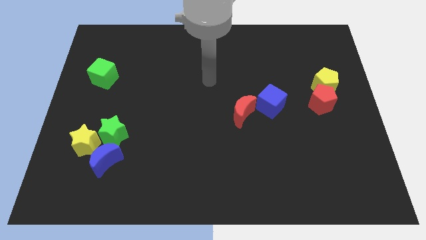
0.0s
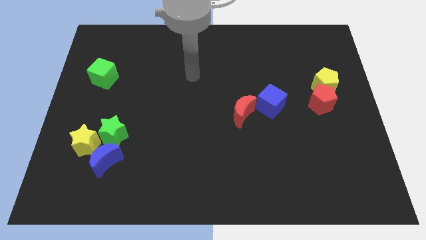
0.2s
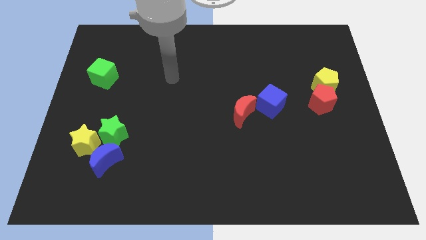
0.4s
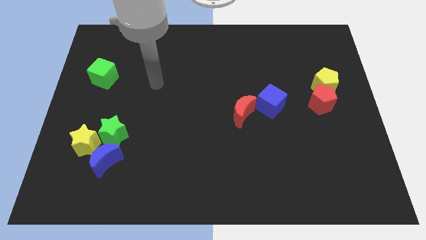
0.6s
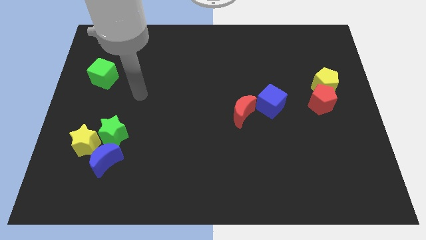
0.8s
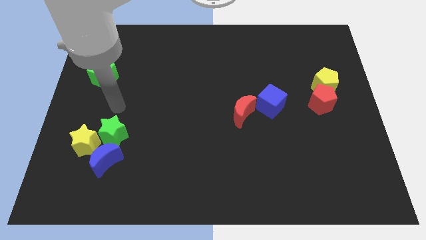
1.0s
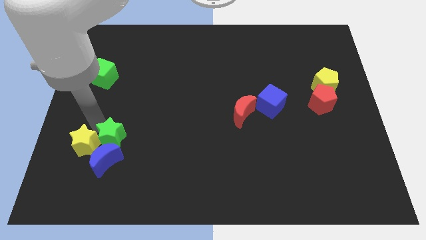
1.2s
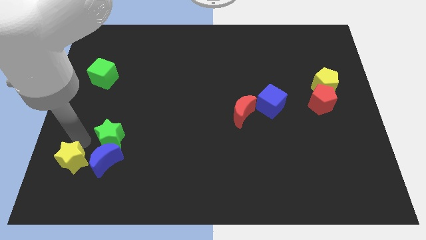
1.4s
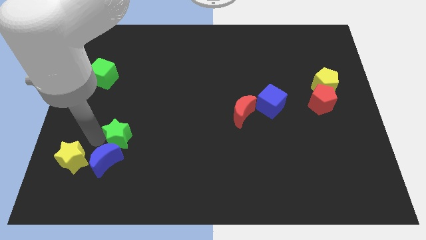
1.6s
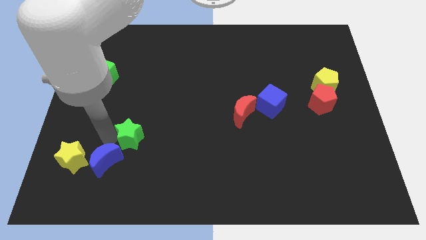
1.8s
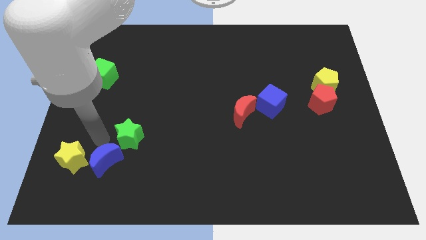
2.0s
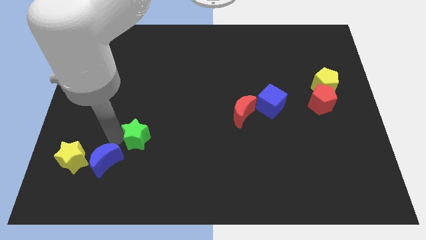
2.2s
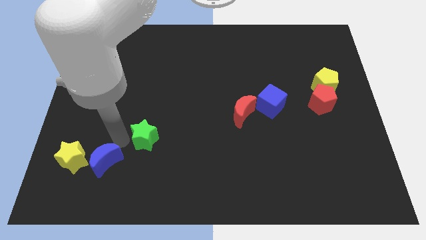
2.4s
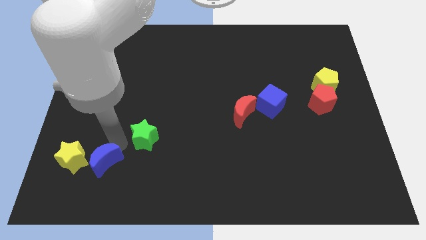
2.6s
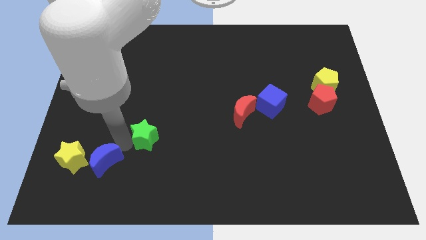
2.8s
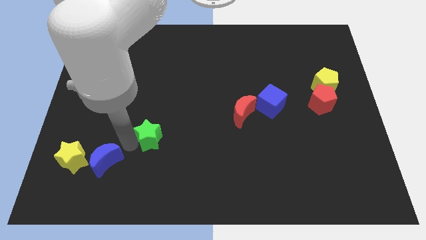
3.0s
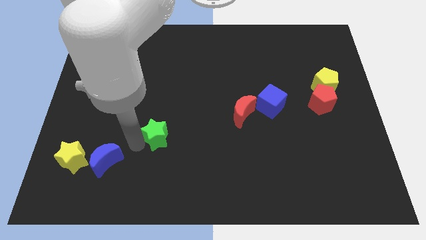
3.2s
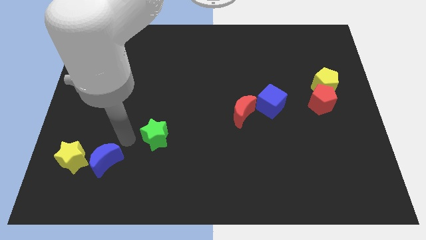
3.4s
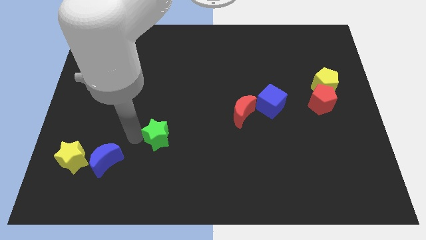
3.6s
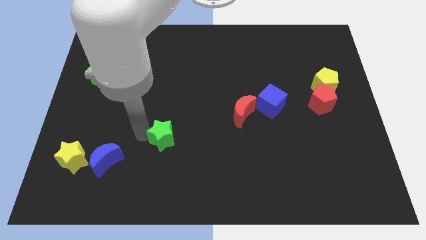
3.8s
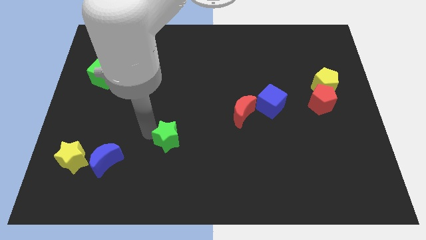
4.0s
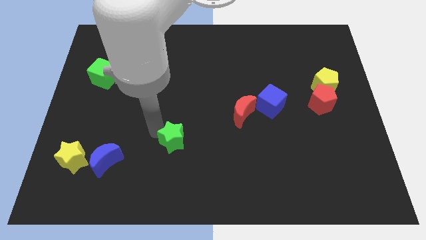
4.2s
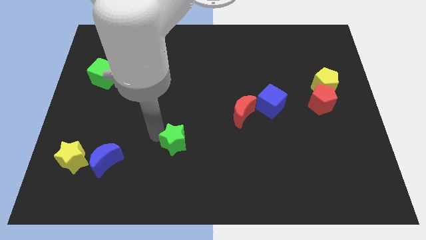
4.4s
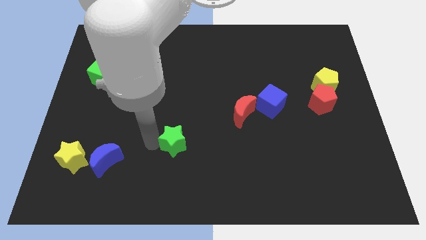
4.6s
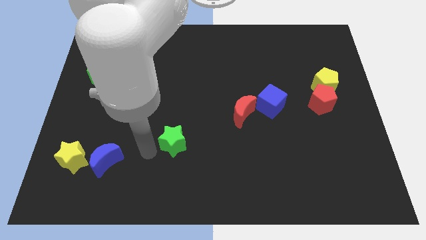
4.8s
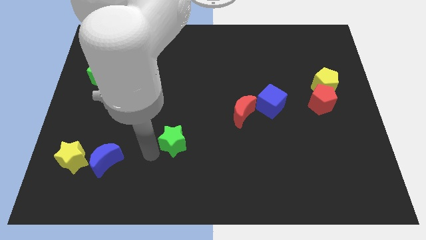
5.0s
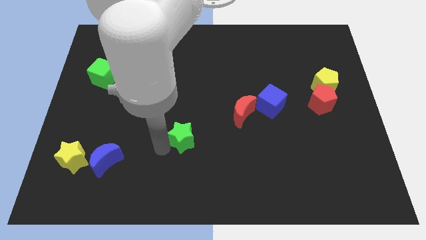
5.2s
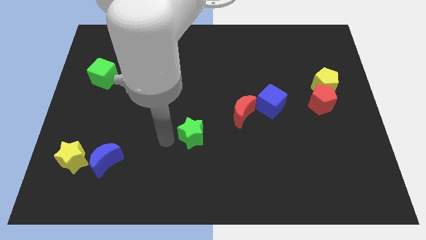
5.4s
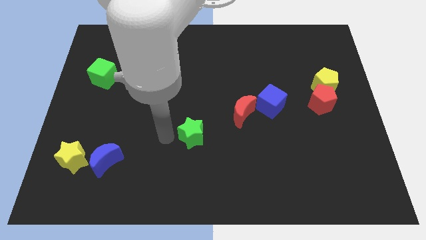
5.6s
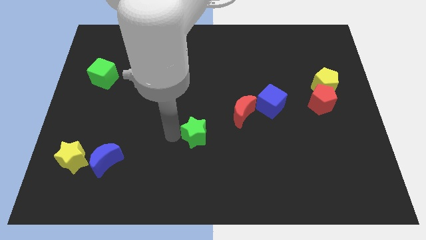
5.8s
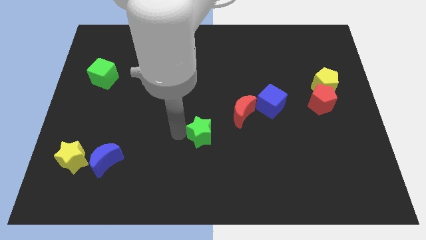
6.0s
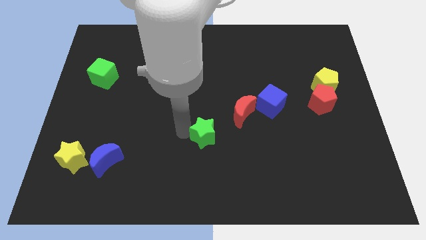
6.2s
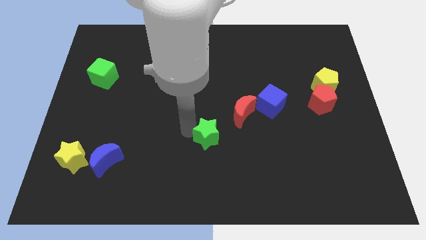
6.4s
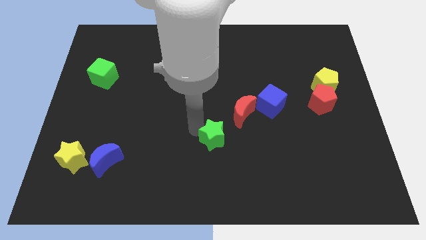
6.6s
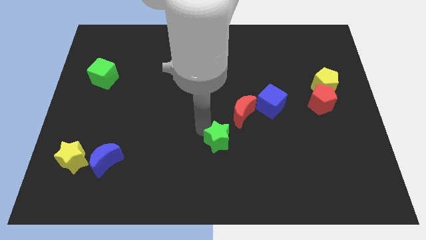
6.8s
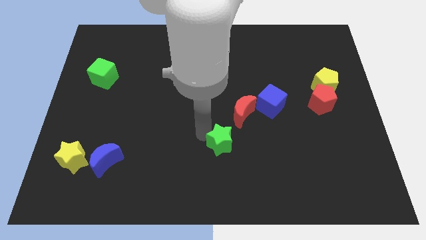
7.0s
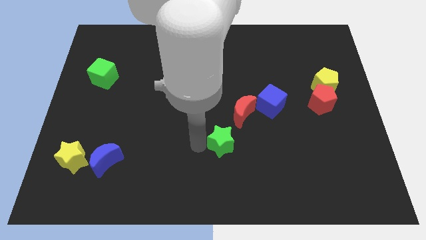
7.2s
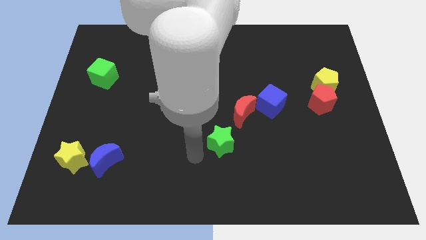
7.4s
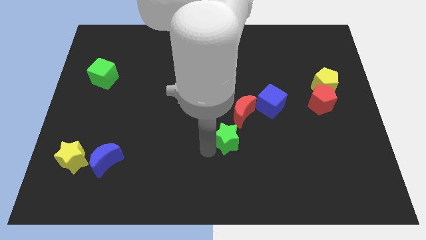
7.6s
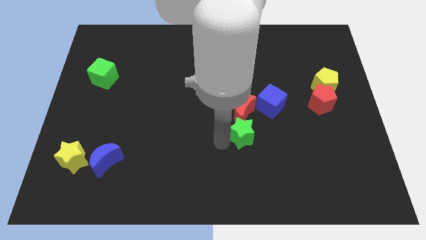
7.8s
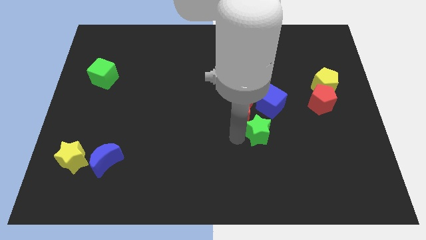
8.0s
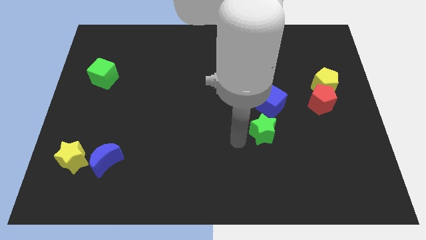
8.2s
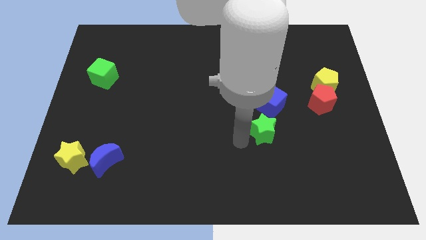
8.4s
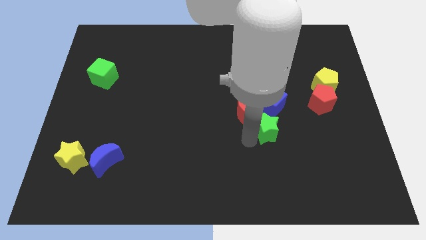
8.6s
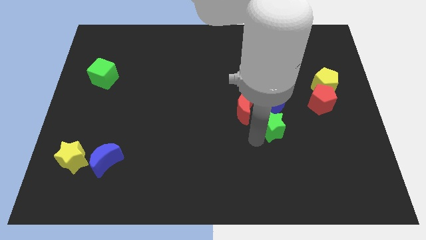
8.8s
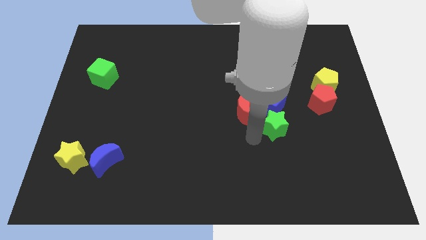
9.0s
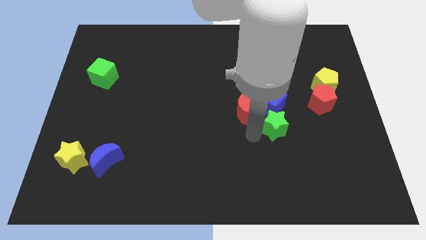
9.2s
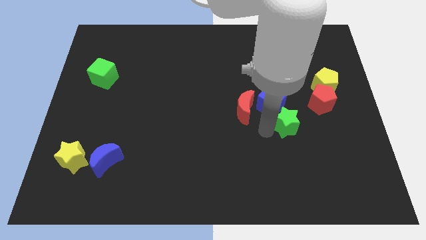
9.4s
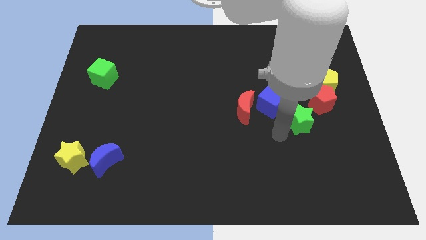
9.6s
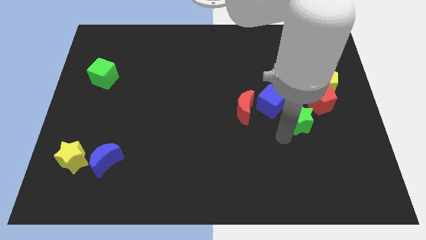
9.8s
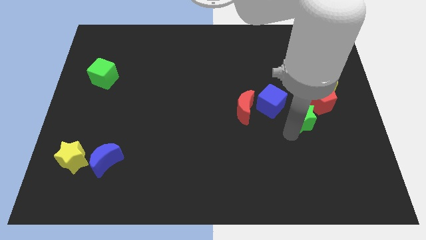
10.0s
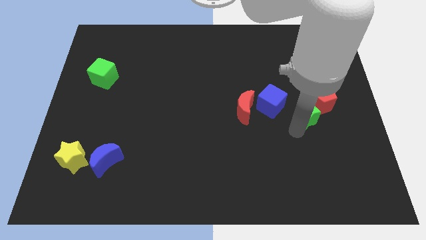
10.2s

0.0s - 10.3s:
move the green star to the red pentagon

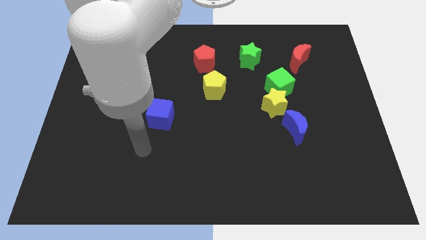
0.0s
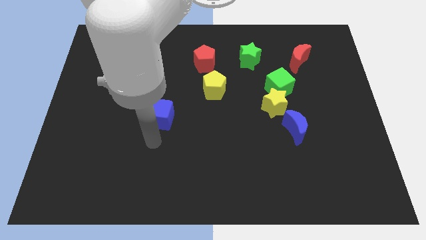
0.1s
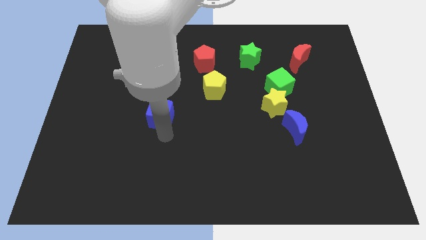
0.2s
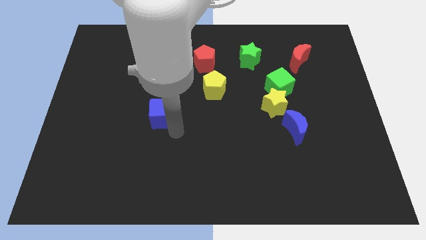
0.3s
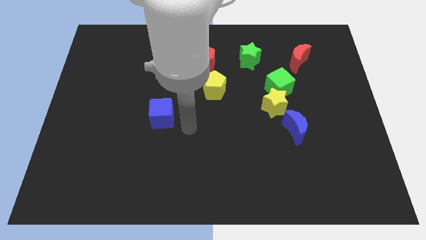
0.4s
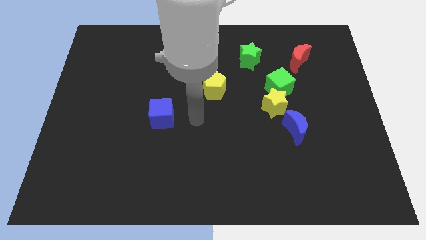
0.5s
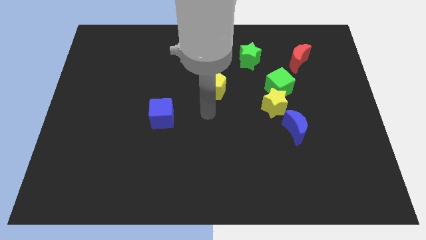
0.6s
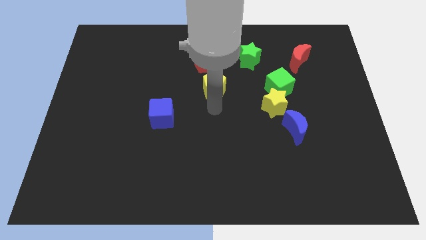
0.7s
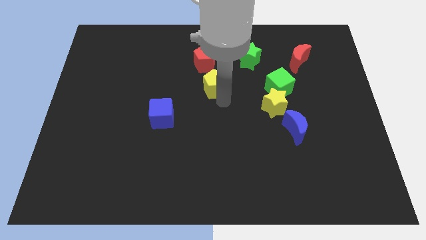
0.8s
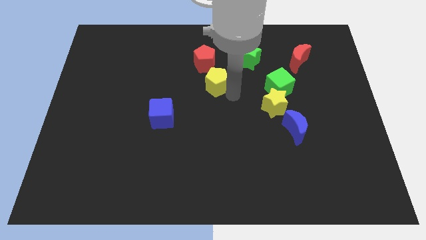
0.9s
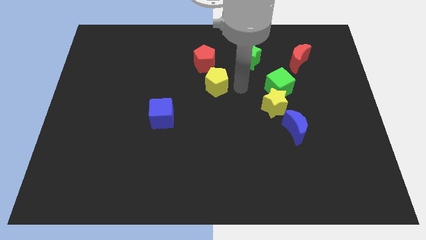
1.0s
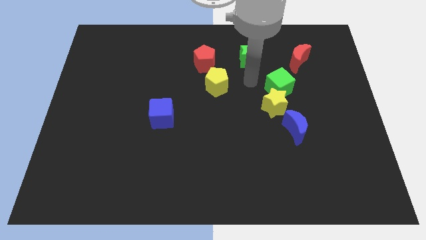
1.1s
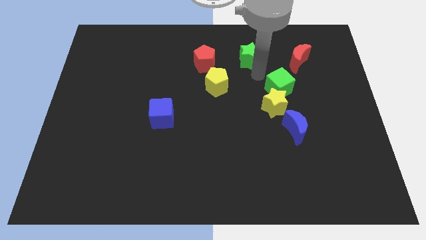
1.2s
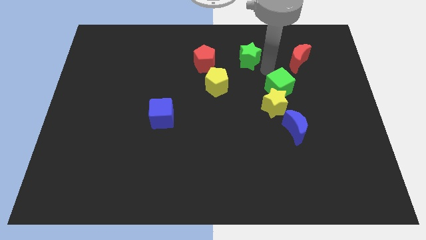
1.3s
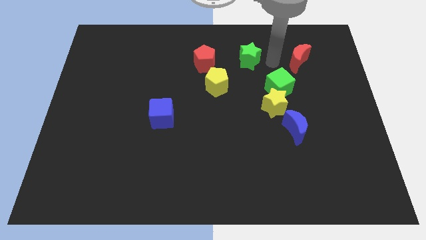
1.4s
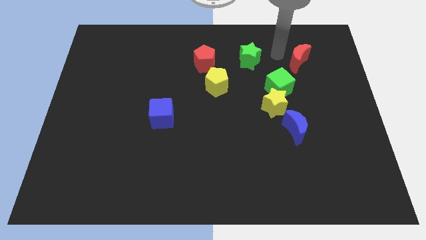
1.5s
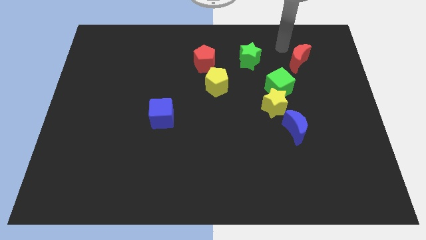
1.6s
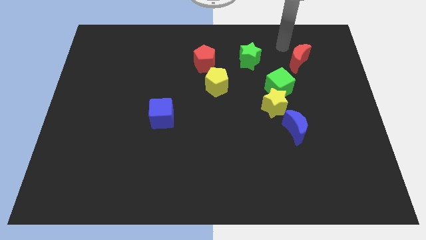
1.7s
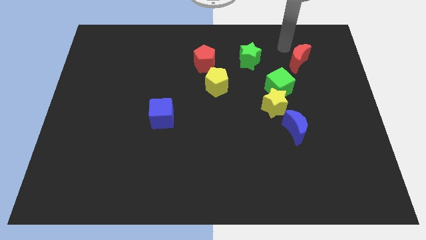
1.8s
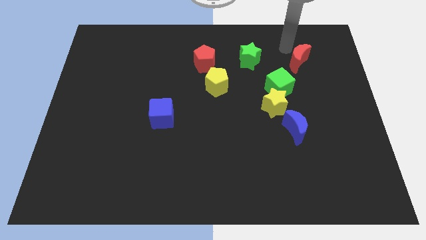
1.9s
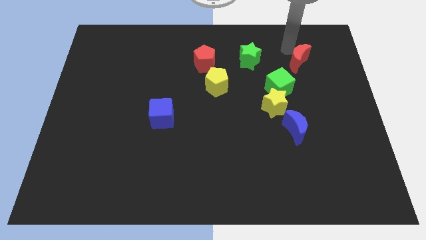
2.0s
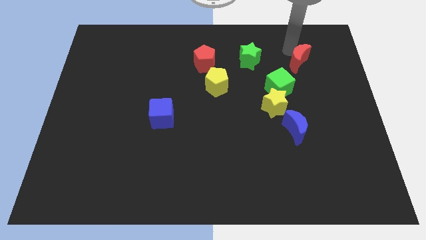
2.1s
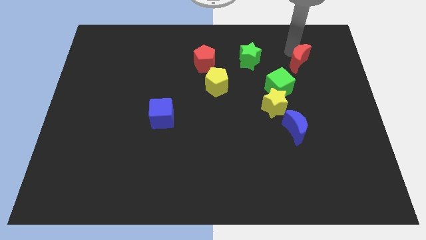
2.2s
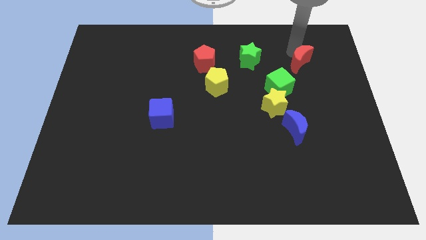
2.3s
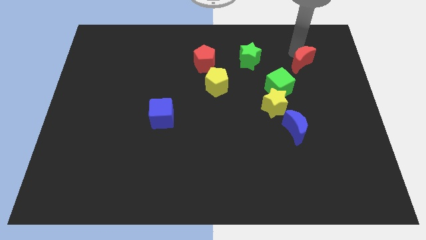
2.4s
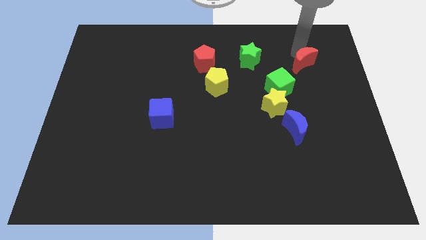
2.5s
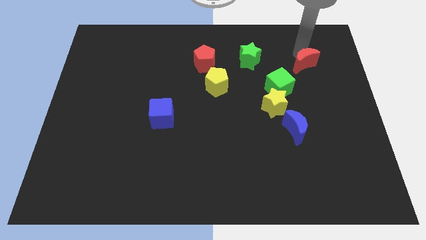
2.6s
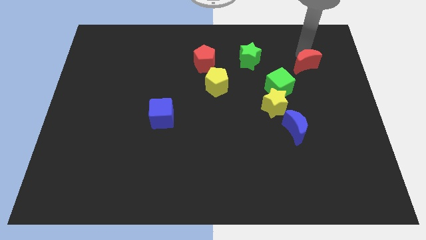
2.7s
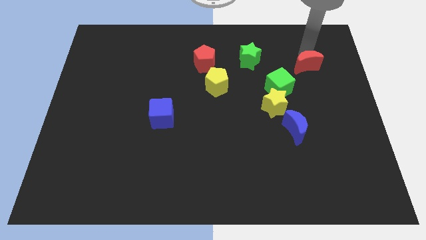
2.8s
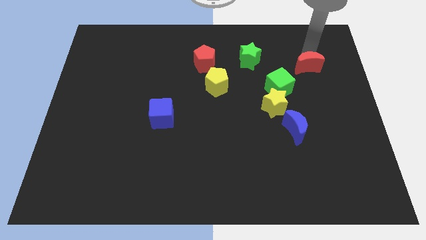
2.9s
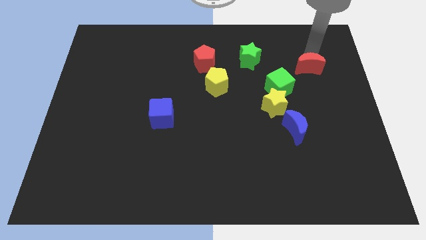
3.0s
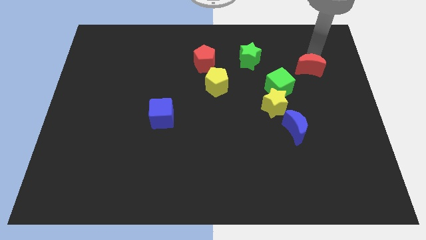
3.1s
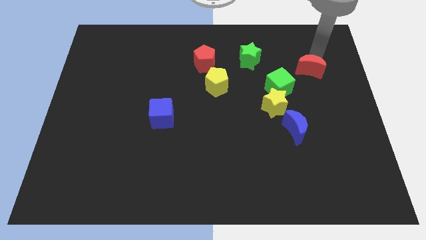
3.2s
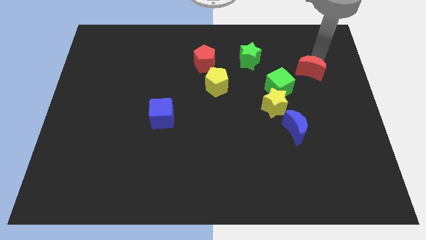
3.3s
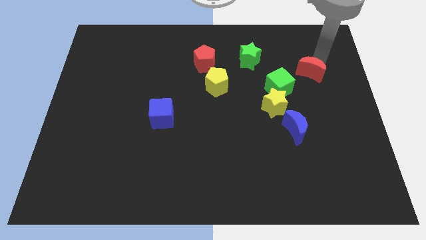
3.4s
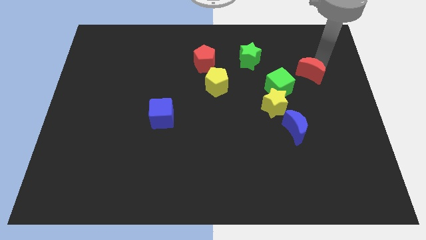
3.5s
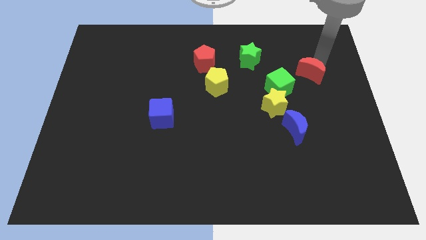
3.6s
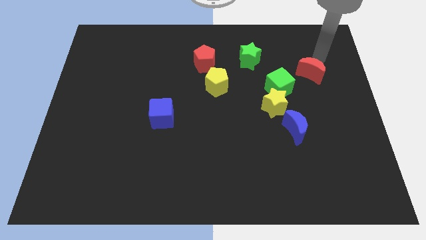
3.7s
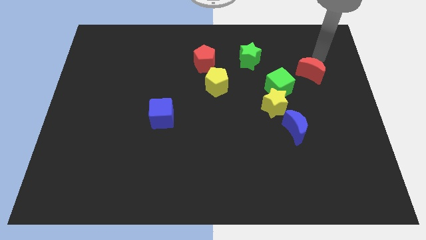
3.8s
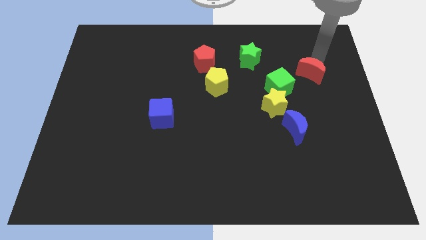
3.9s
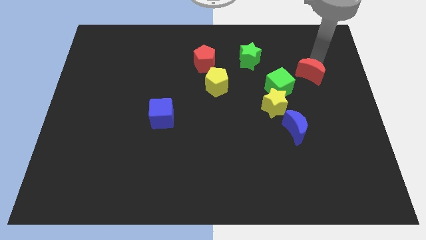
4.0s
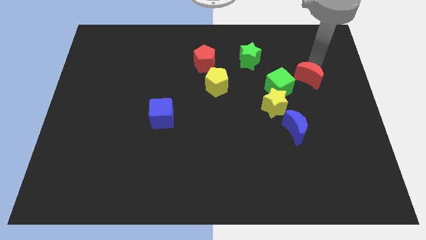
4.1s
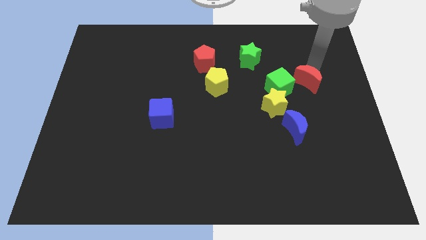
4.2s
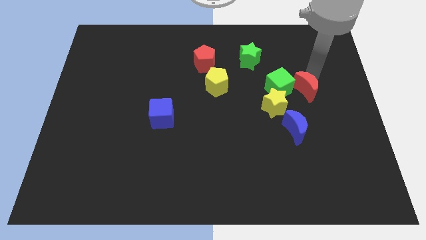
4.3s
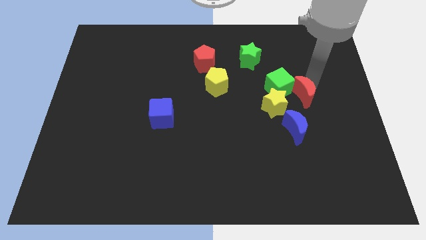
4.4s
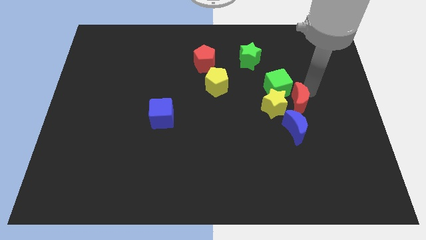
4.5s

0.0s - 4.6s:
move the red moon to the yellow star
